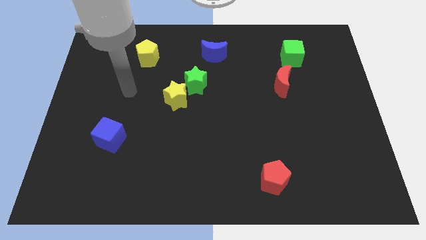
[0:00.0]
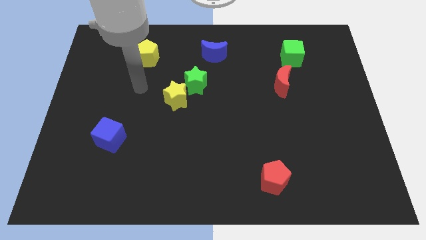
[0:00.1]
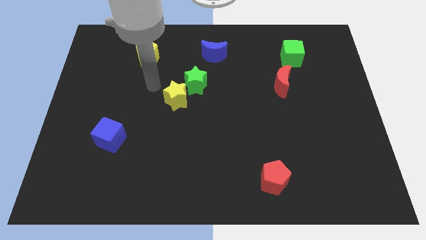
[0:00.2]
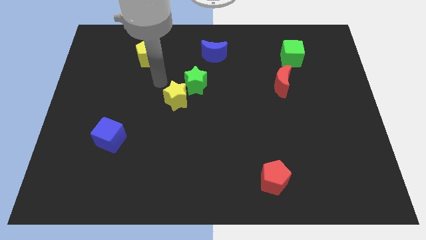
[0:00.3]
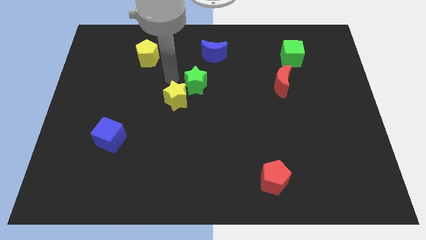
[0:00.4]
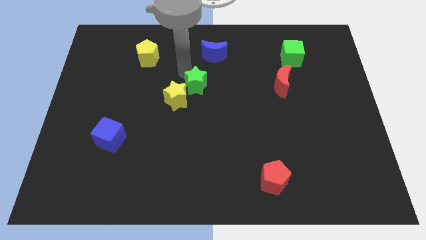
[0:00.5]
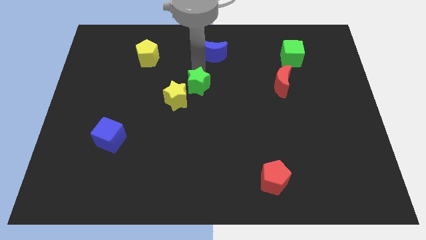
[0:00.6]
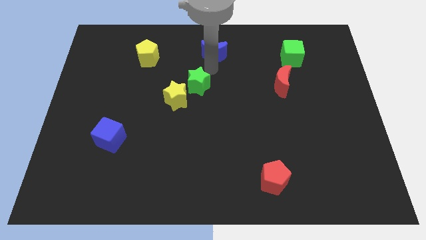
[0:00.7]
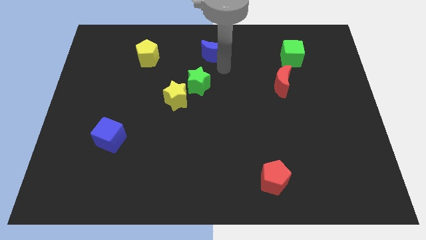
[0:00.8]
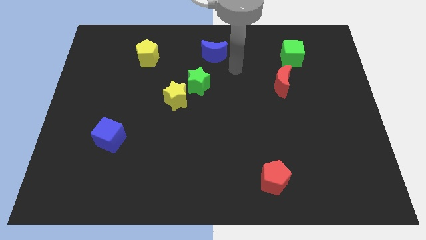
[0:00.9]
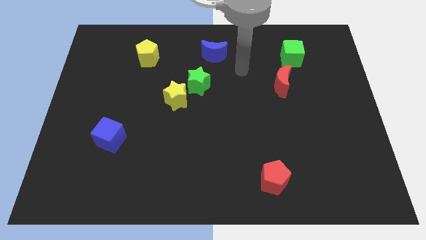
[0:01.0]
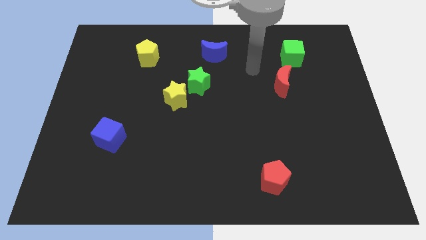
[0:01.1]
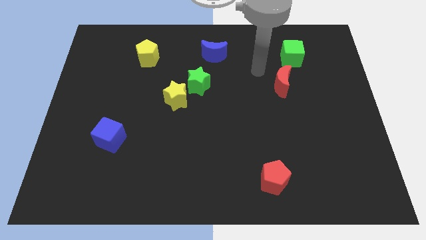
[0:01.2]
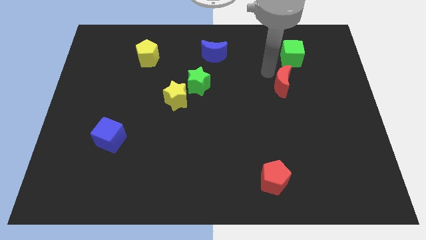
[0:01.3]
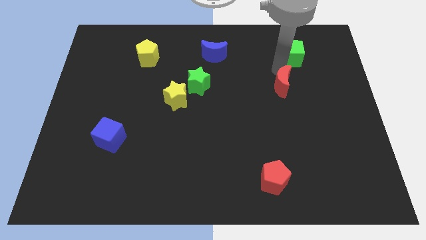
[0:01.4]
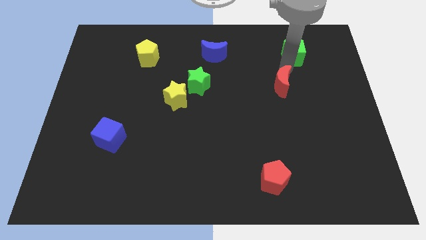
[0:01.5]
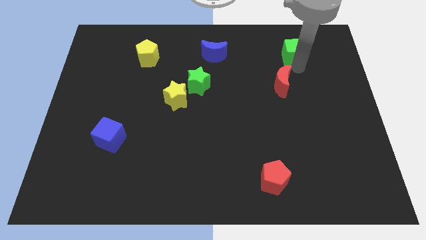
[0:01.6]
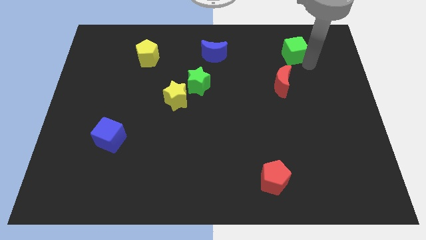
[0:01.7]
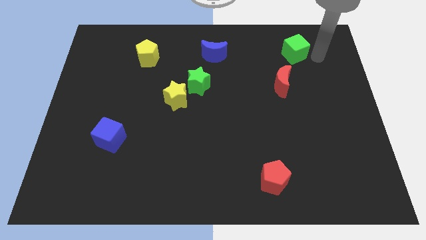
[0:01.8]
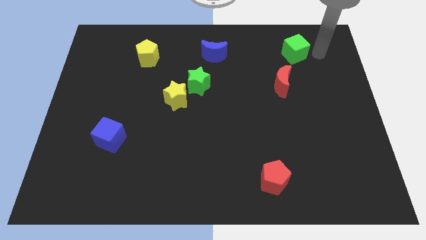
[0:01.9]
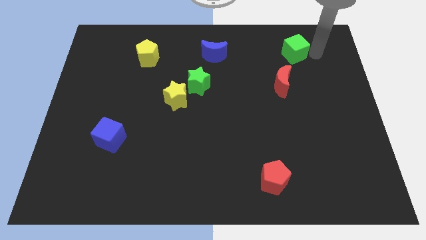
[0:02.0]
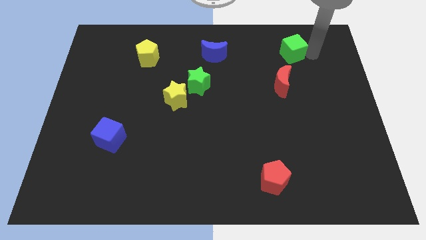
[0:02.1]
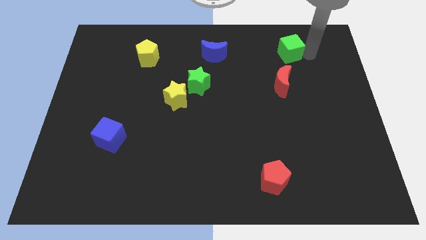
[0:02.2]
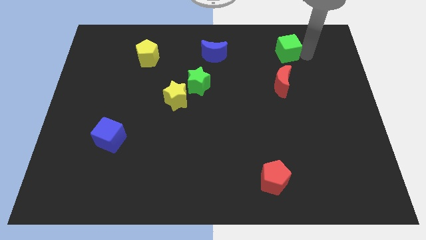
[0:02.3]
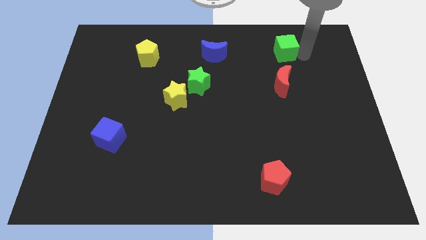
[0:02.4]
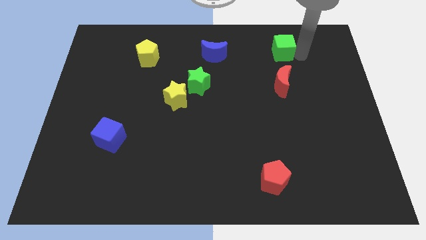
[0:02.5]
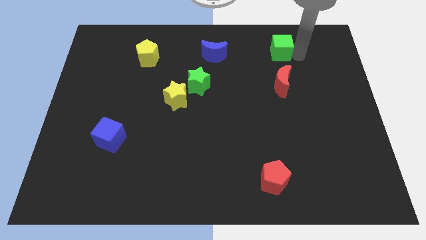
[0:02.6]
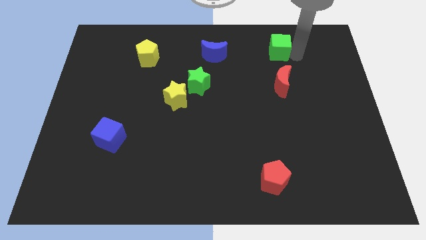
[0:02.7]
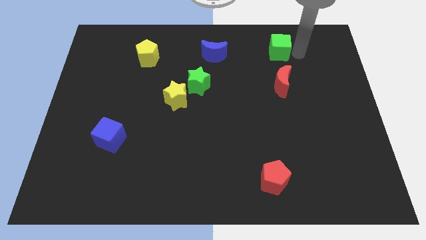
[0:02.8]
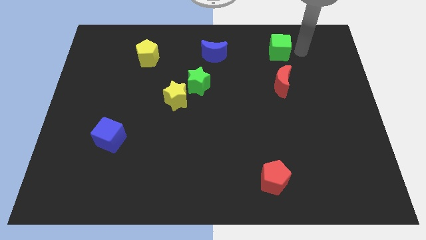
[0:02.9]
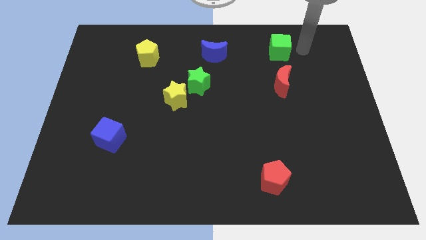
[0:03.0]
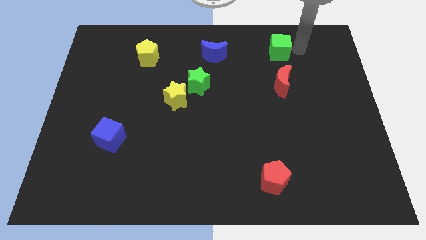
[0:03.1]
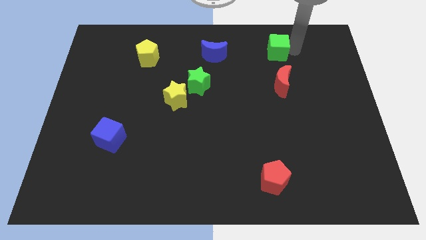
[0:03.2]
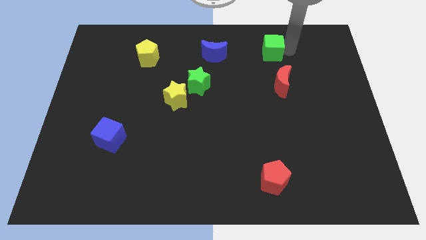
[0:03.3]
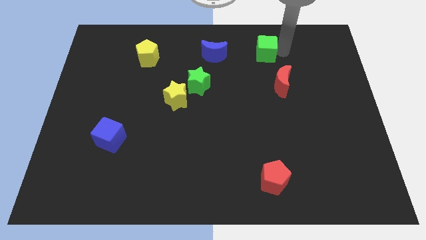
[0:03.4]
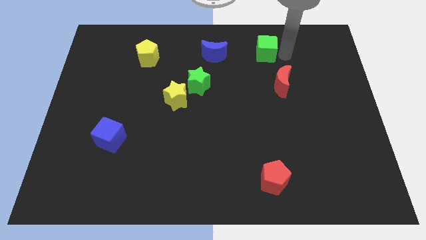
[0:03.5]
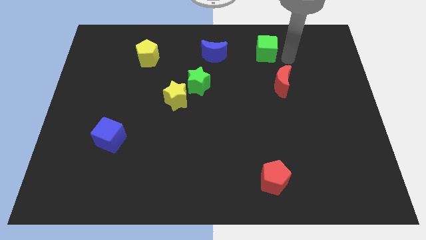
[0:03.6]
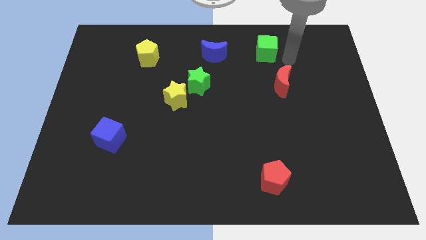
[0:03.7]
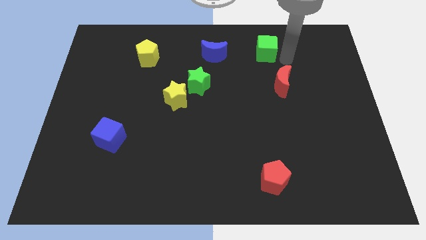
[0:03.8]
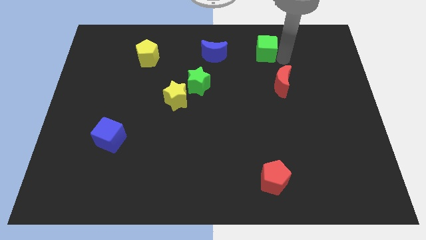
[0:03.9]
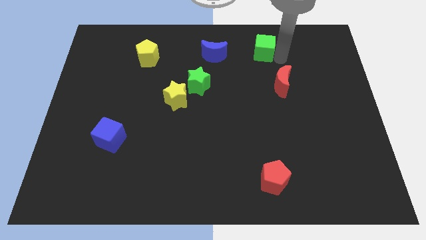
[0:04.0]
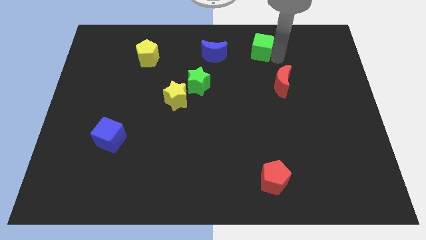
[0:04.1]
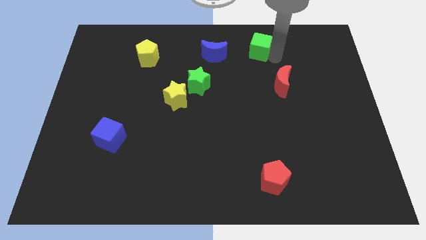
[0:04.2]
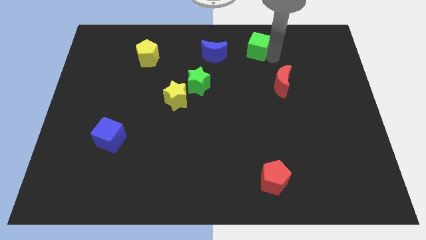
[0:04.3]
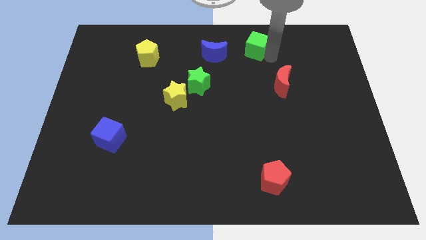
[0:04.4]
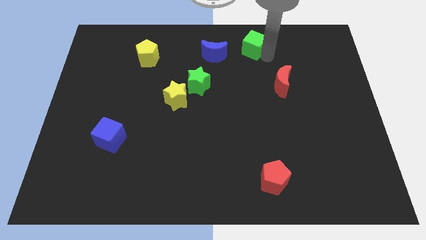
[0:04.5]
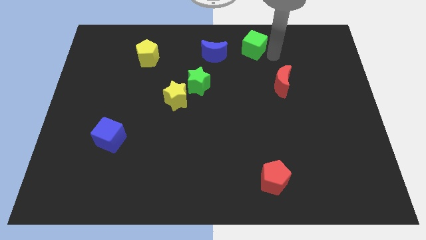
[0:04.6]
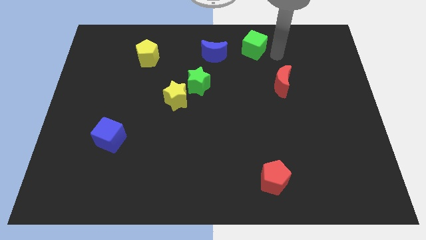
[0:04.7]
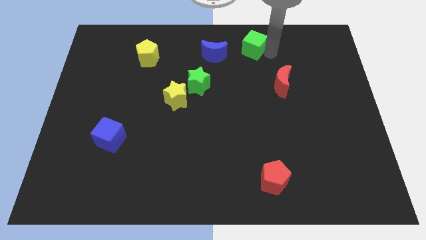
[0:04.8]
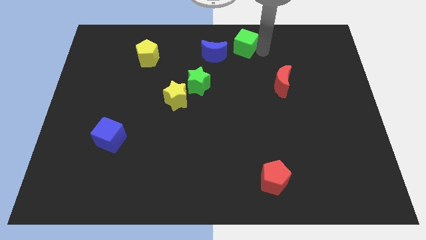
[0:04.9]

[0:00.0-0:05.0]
move the green cube to the top side
